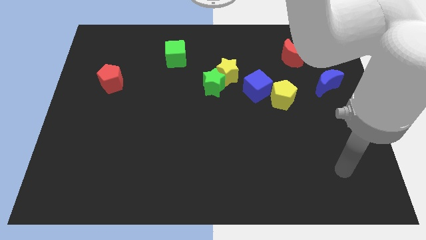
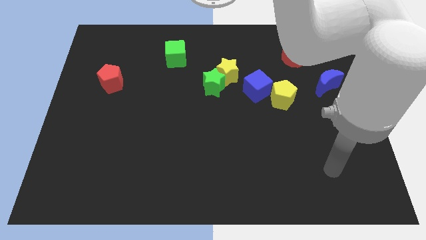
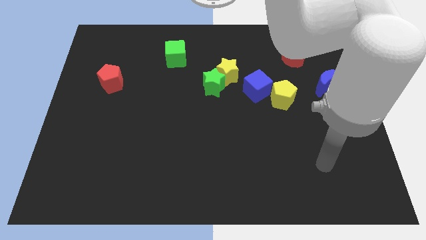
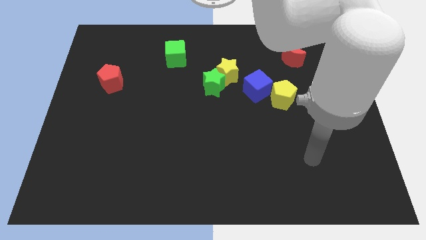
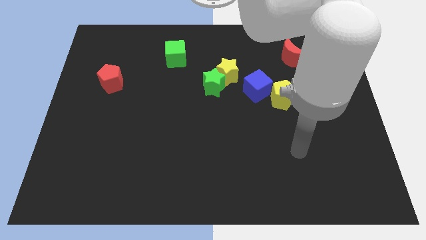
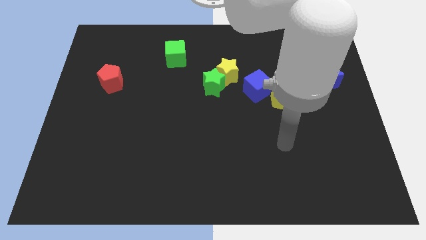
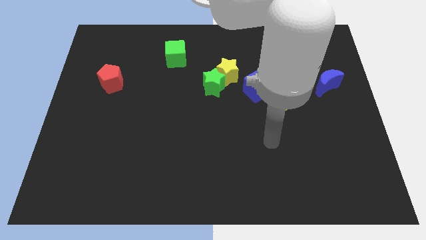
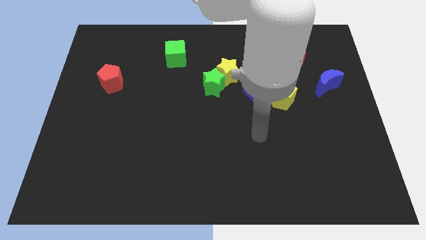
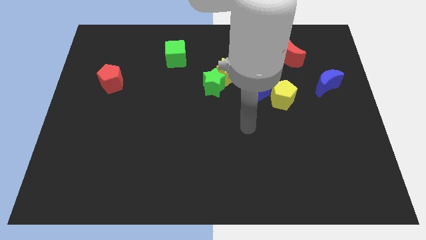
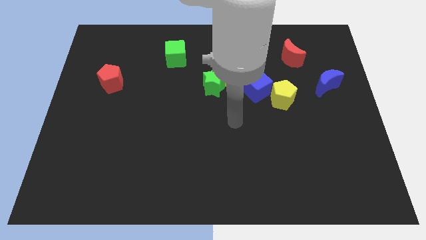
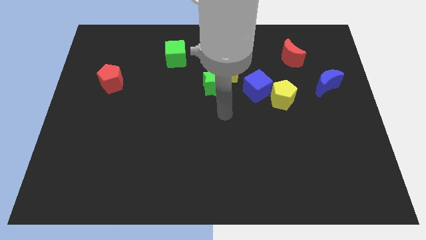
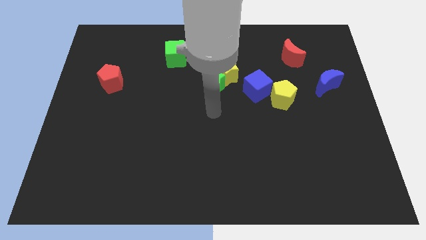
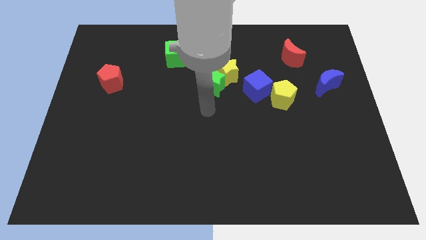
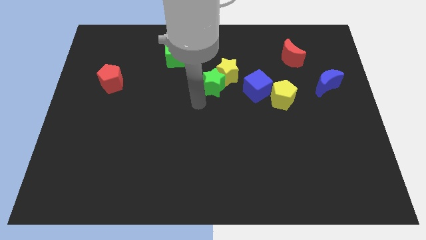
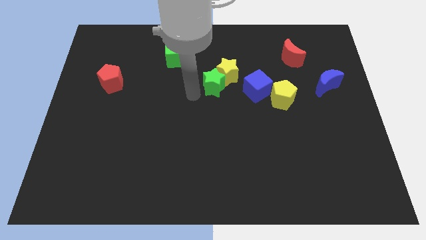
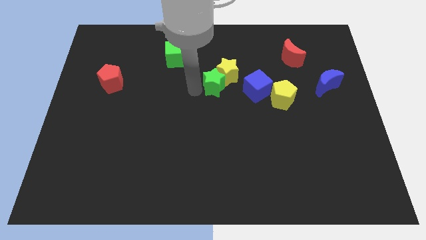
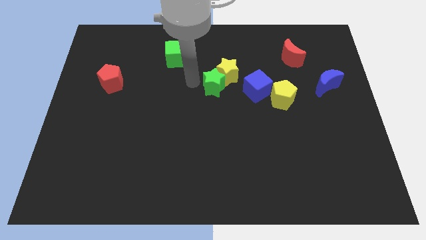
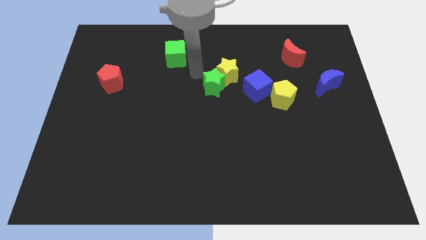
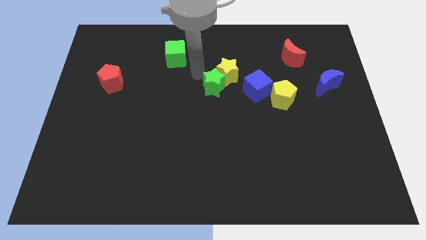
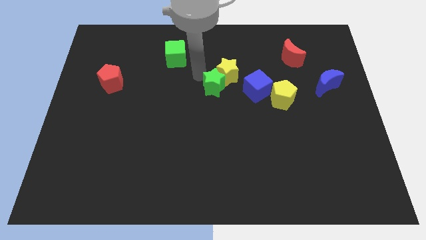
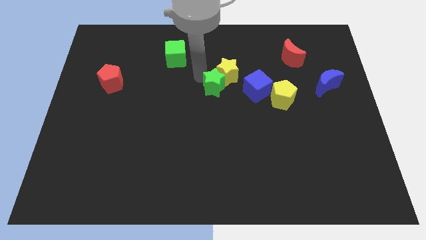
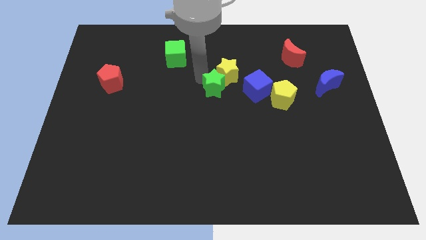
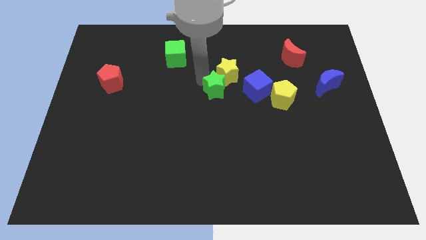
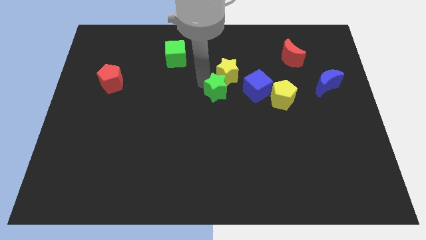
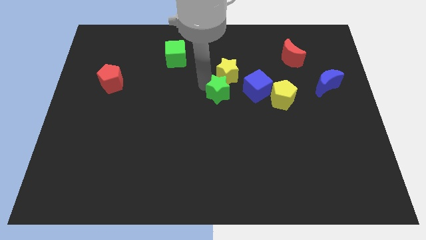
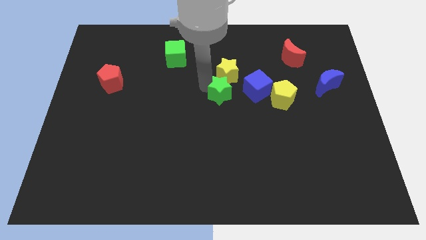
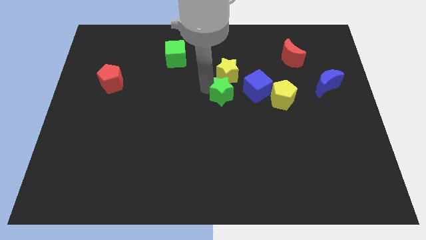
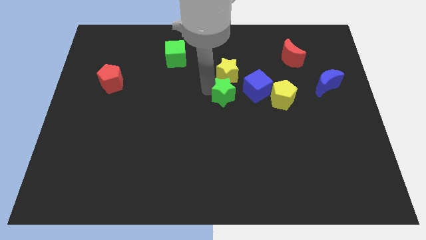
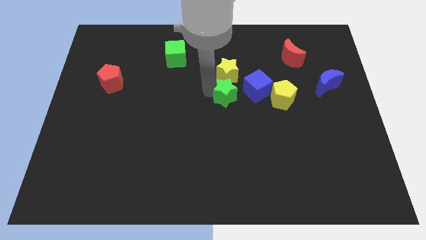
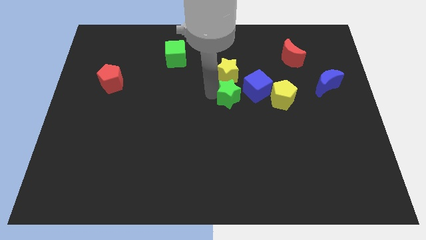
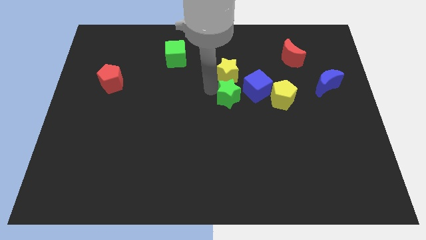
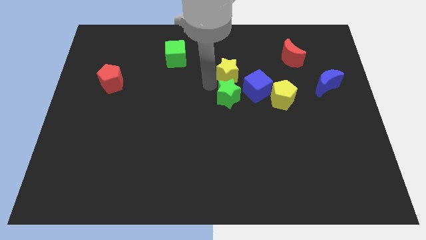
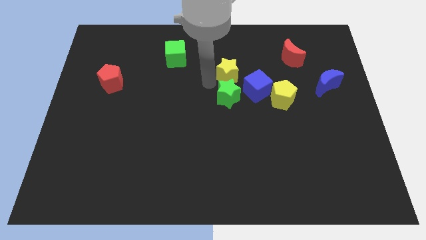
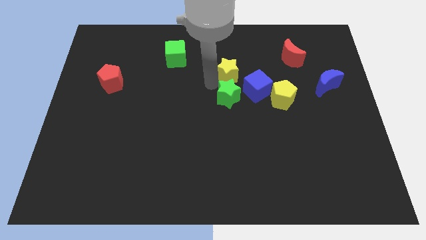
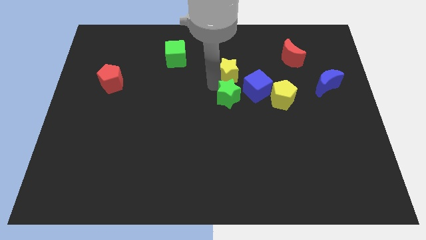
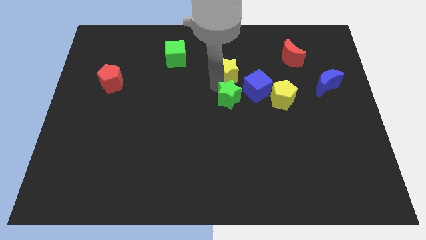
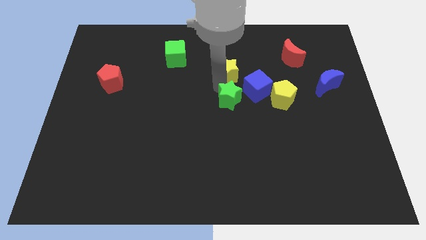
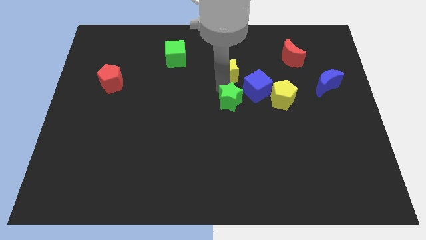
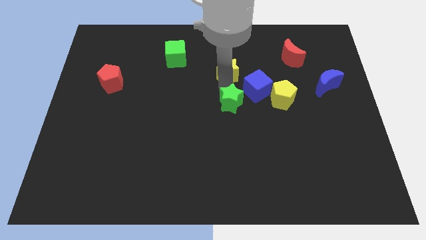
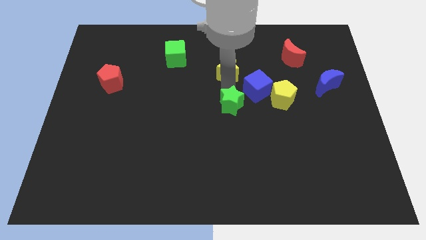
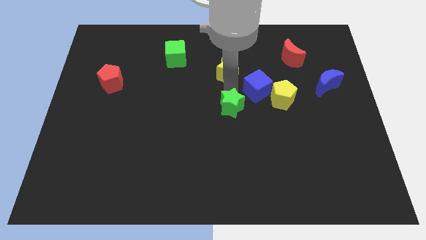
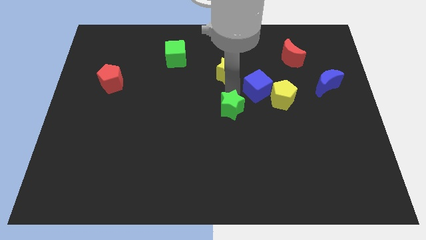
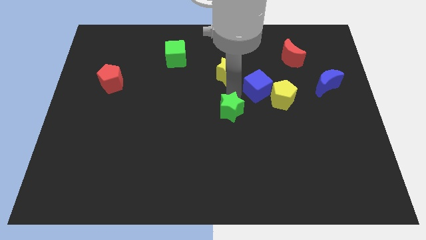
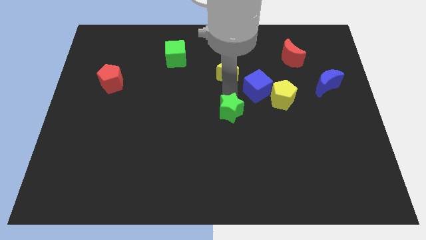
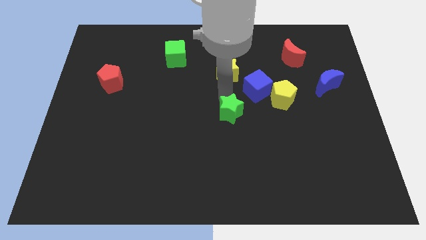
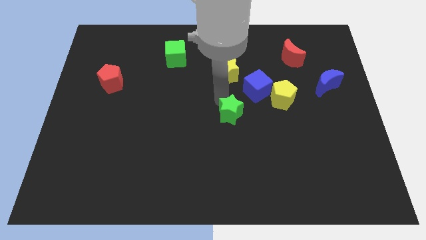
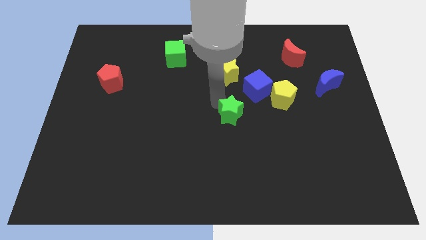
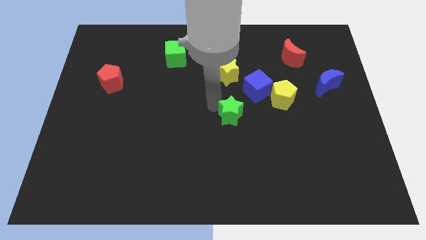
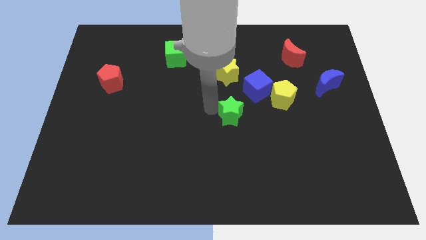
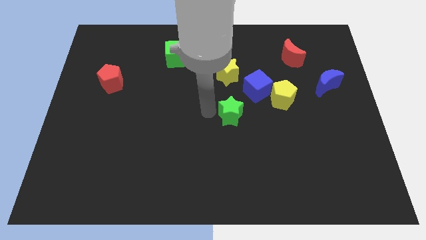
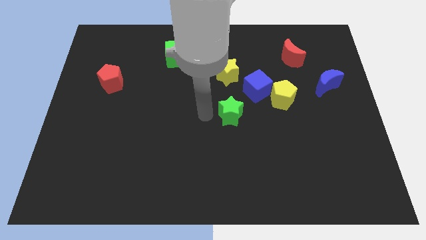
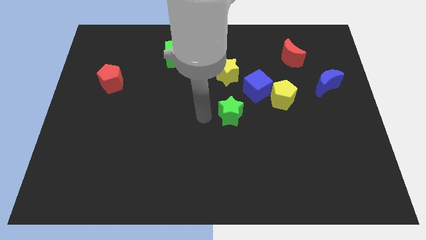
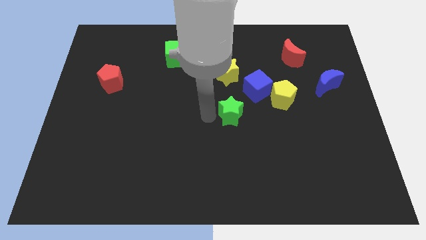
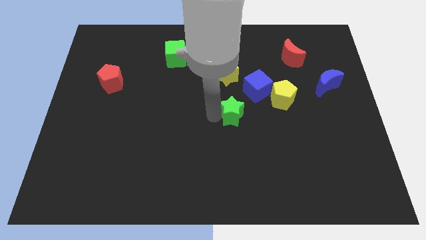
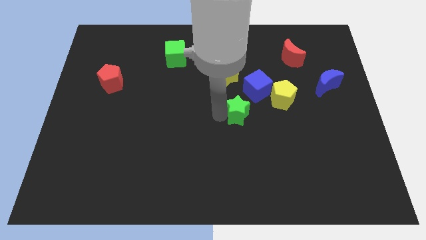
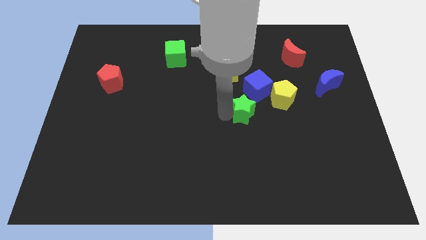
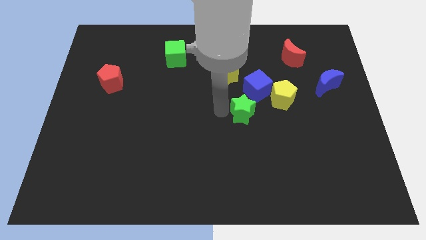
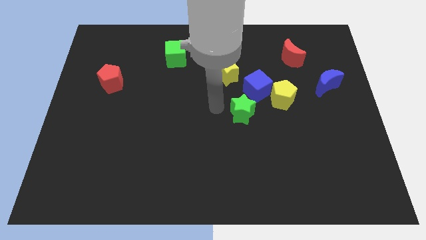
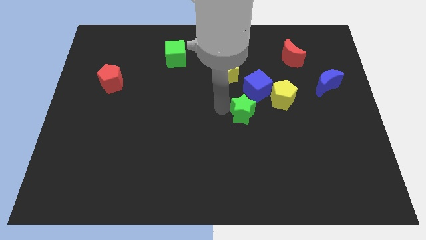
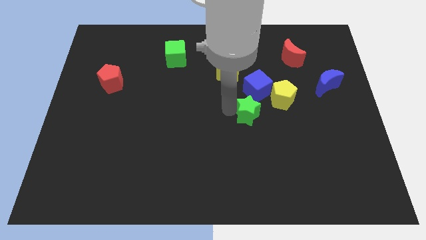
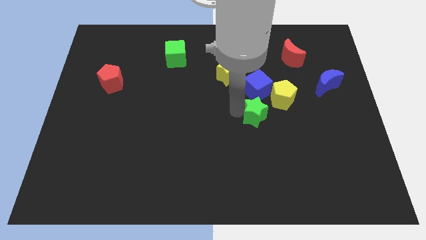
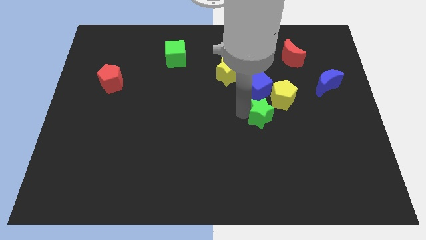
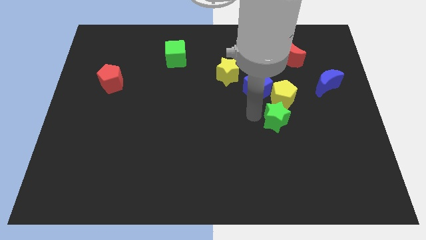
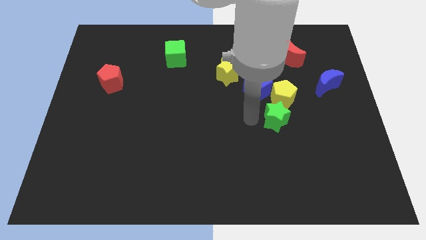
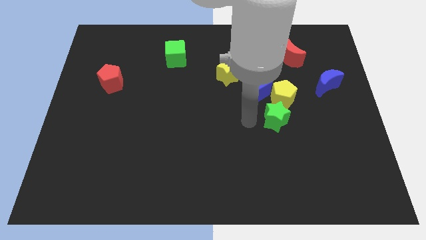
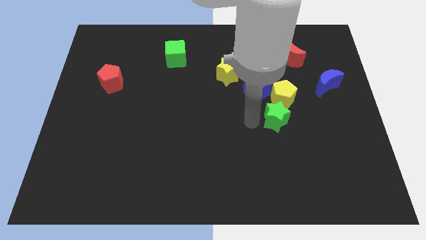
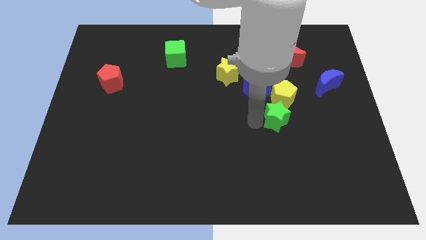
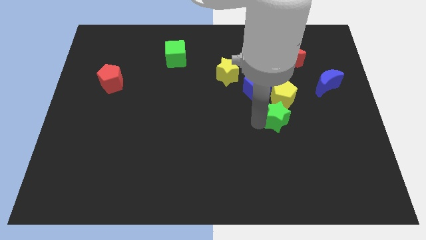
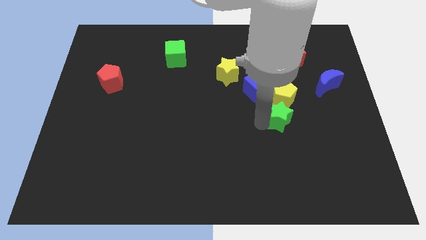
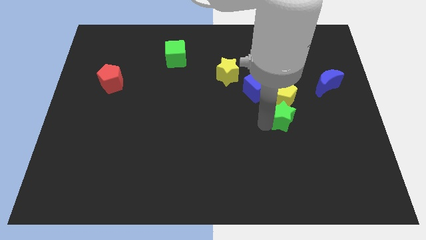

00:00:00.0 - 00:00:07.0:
push the green star to the bottom right of the yellow pentagon

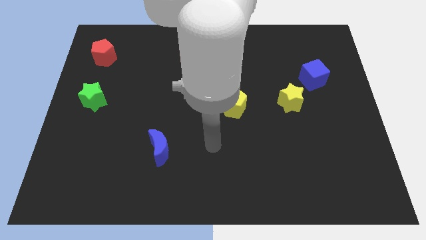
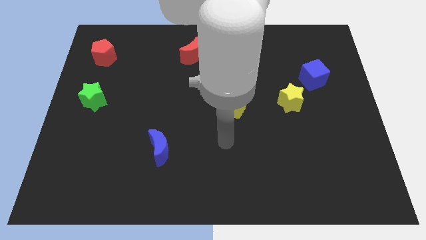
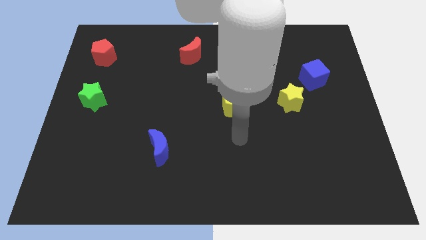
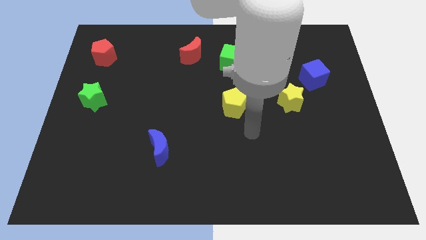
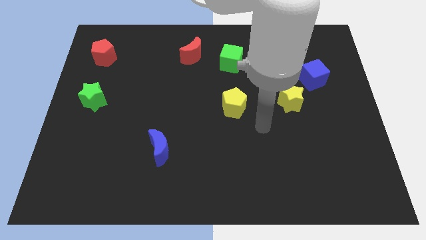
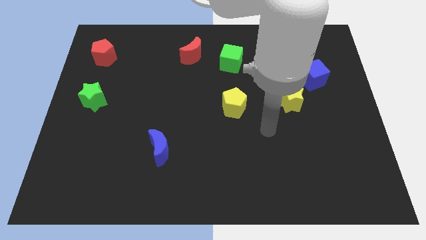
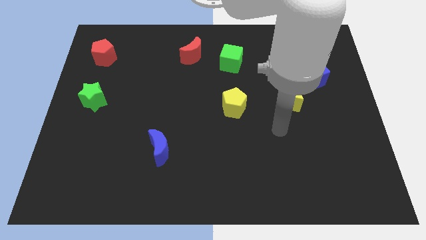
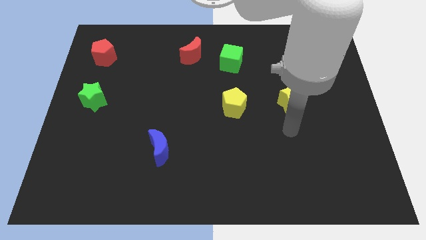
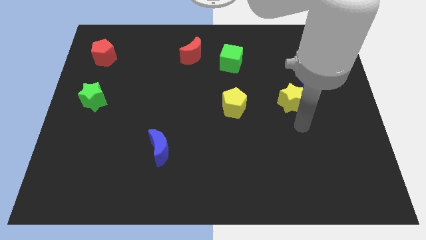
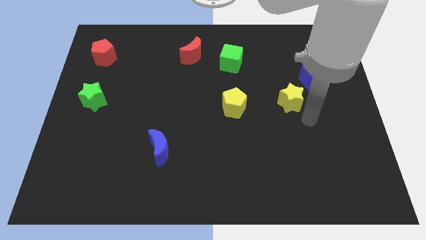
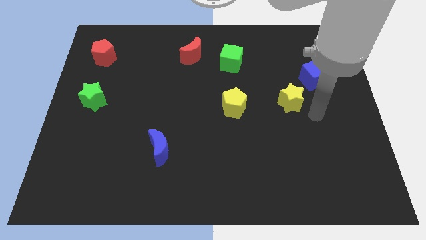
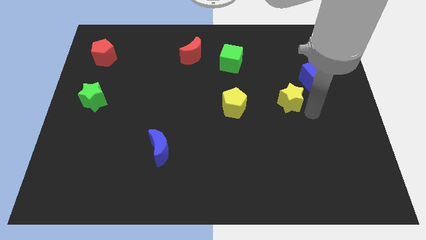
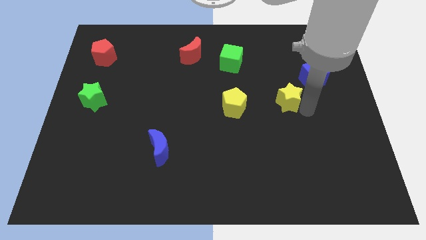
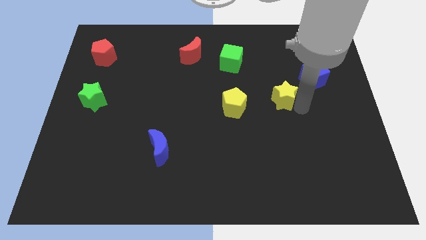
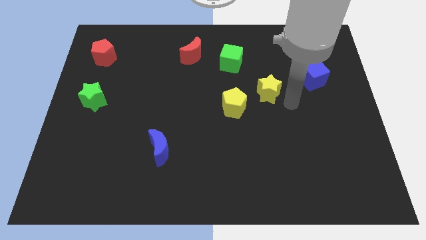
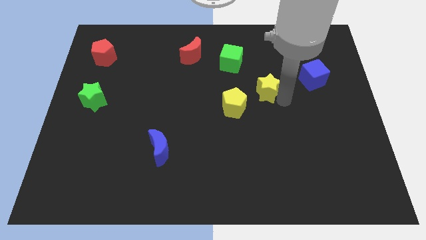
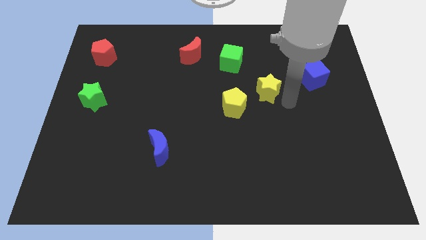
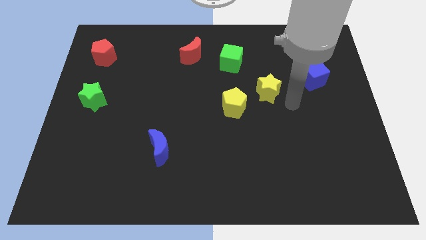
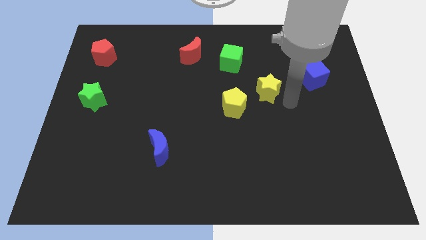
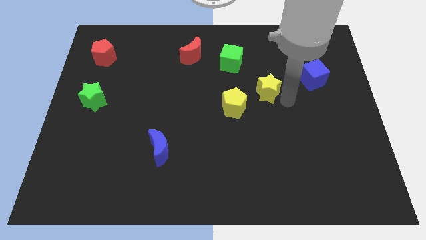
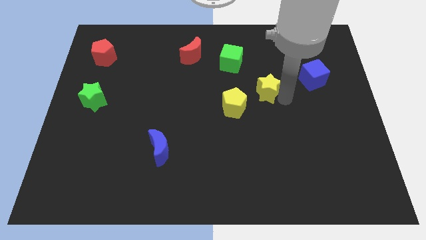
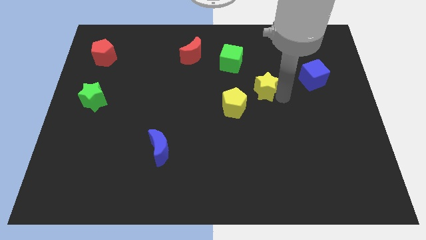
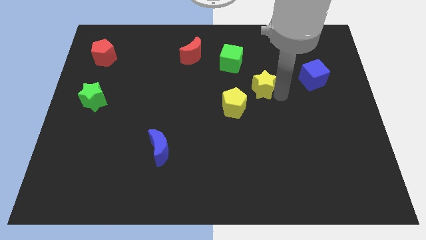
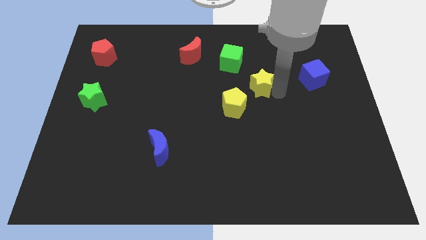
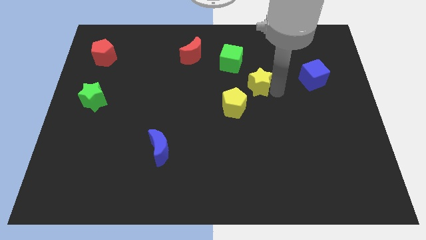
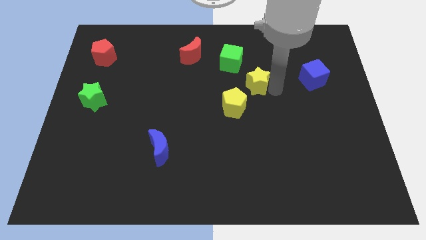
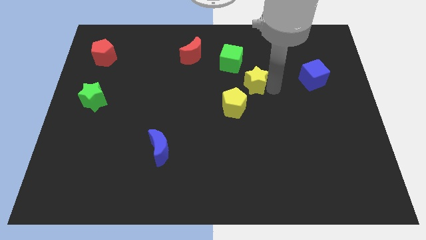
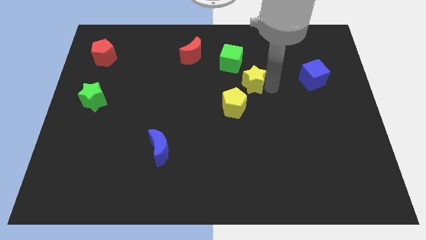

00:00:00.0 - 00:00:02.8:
move the yellow star to the top side of the yellow pentagon
